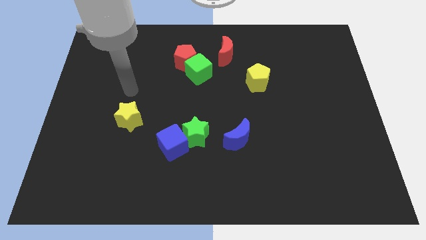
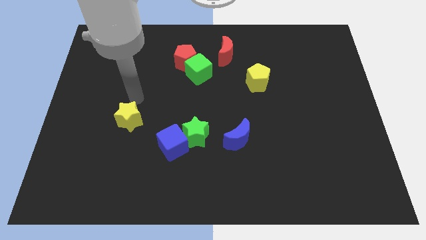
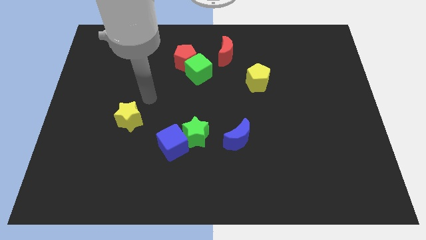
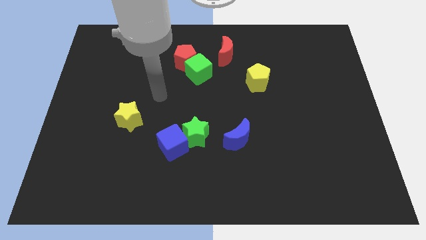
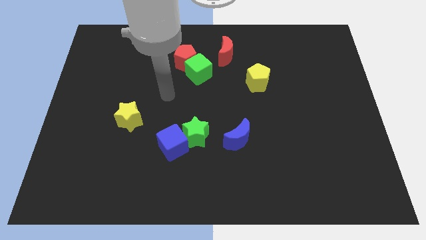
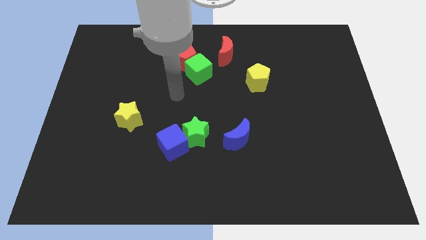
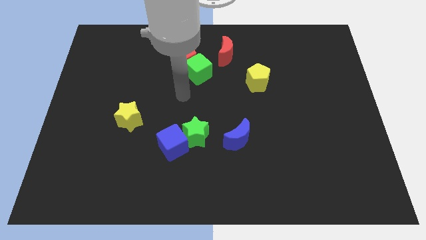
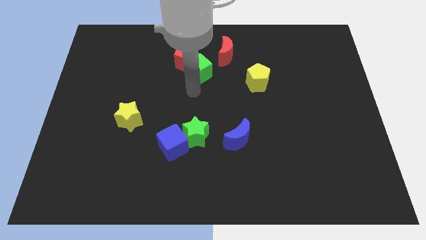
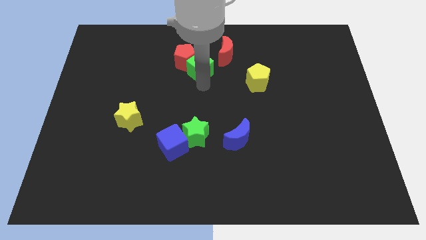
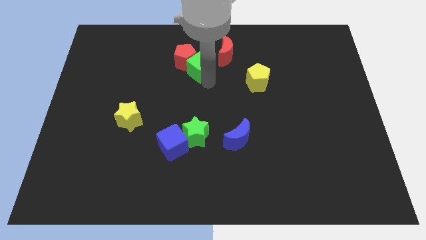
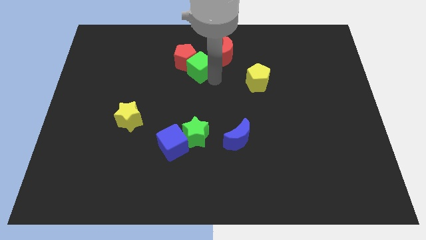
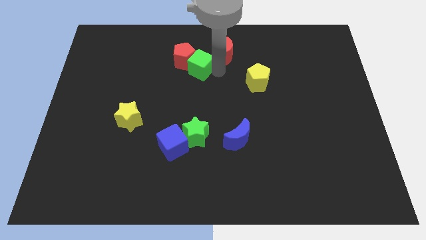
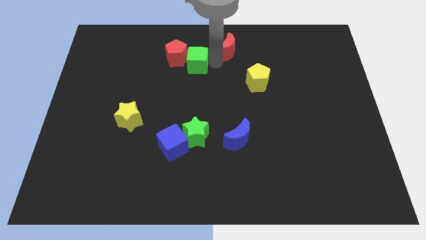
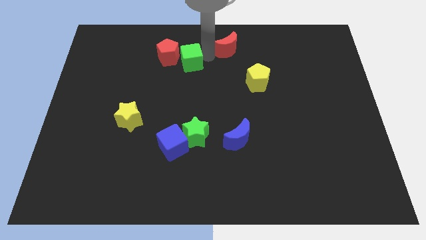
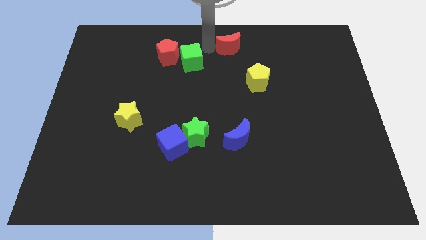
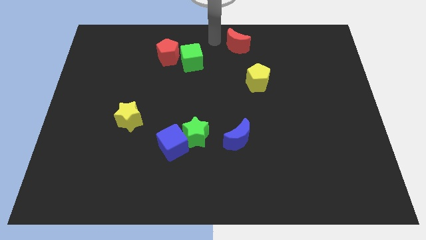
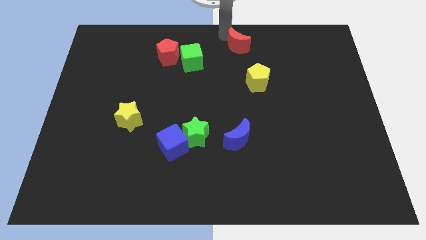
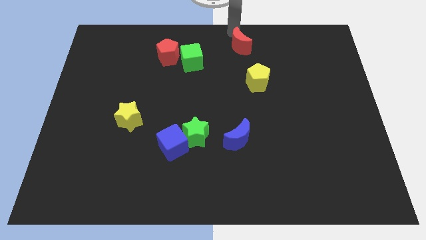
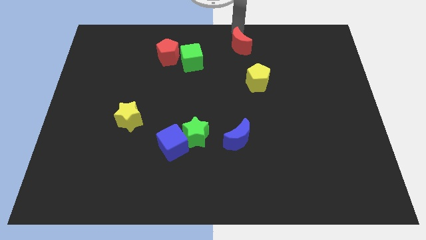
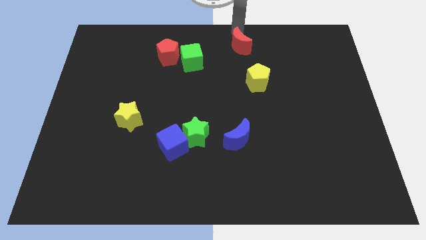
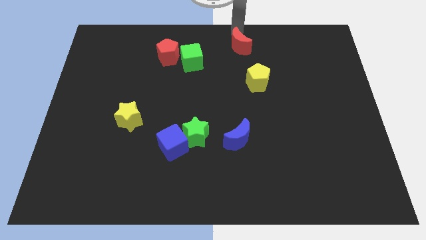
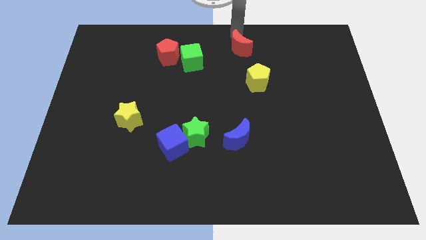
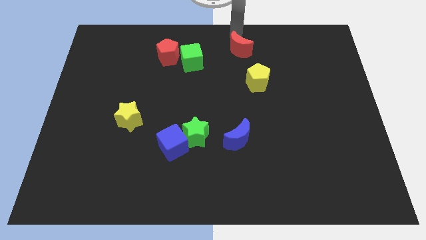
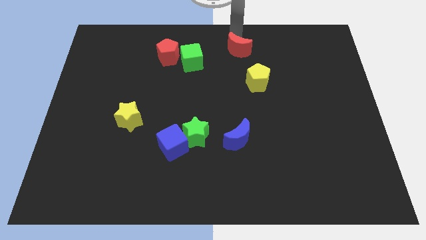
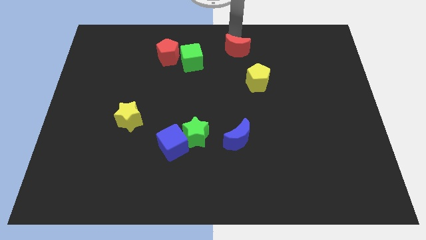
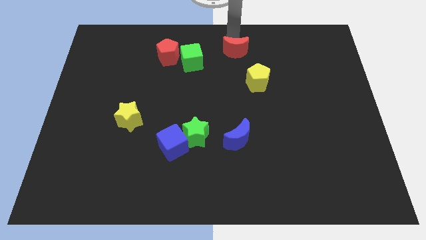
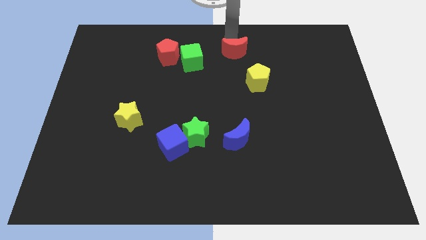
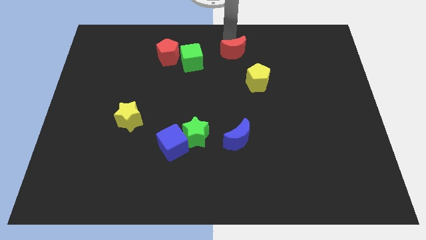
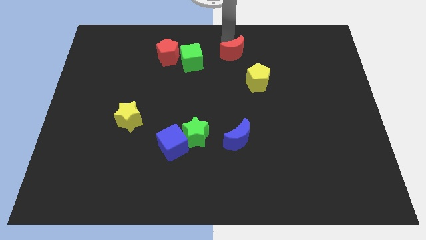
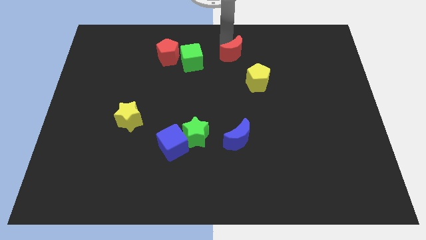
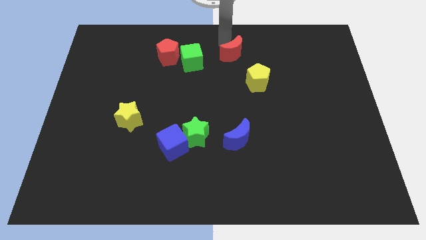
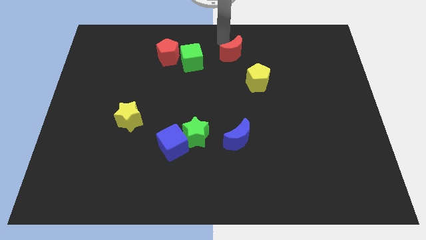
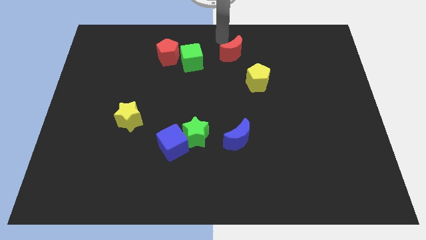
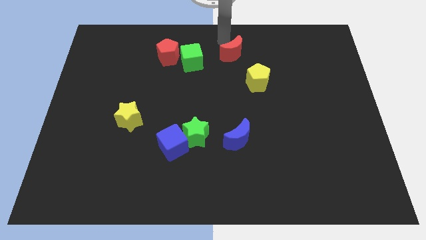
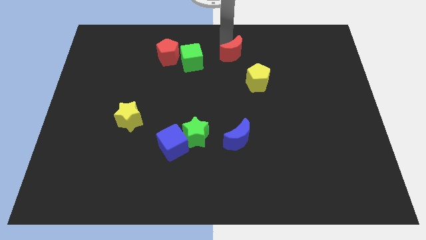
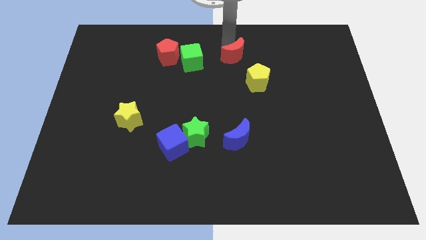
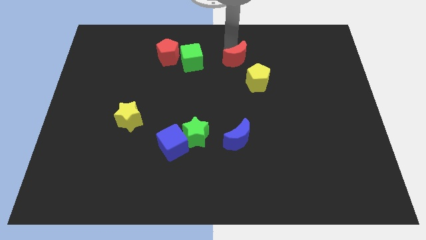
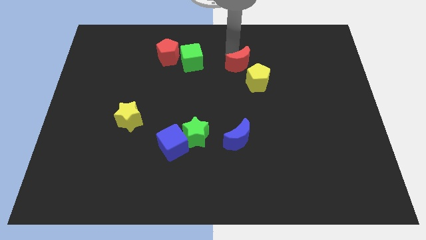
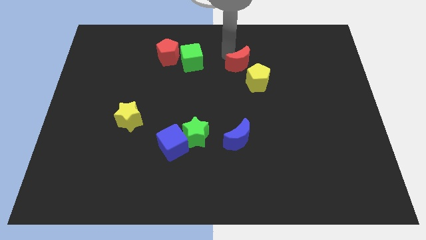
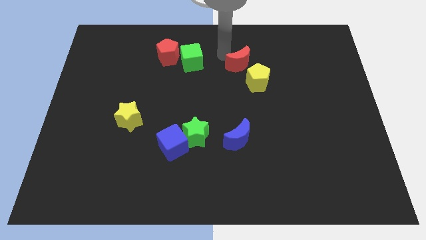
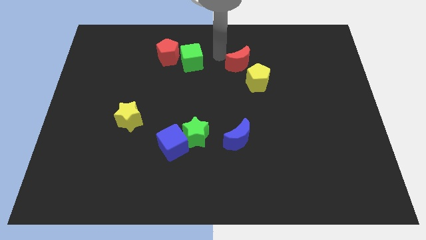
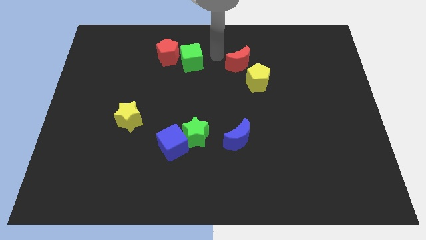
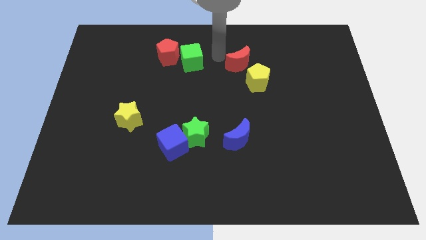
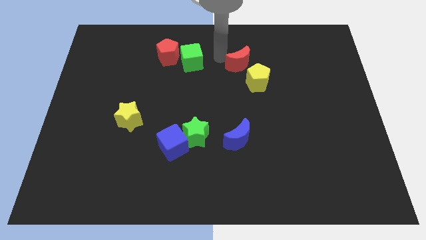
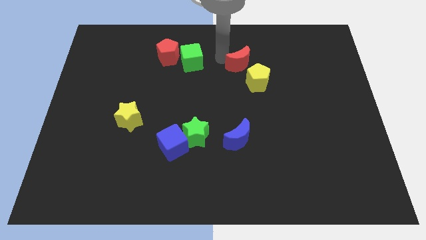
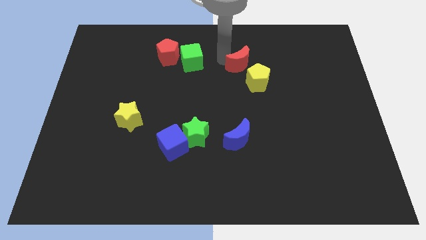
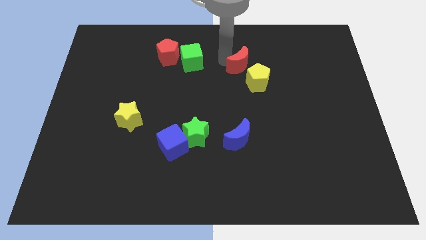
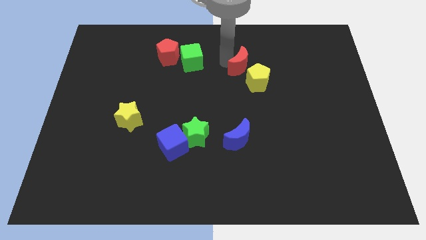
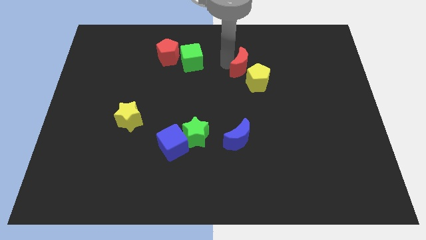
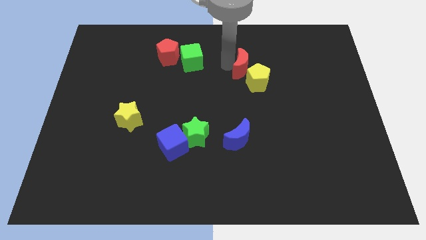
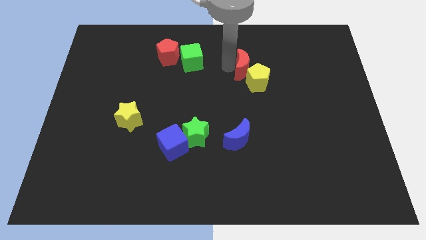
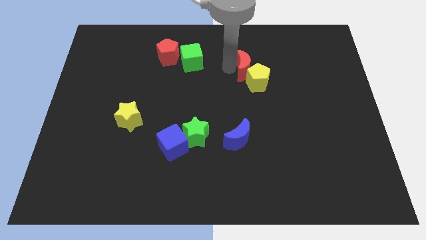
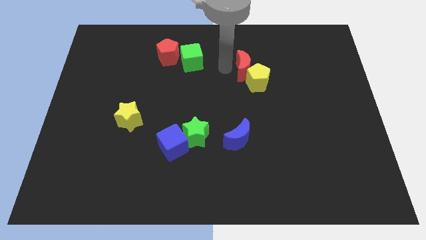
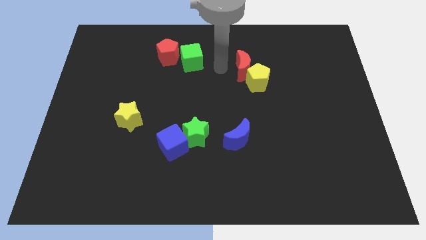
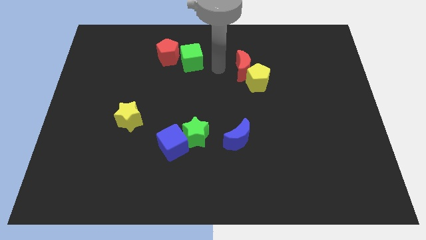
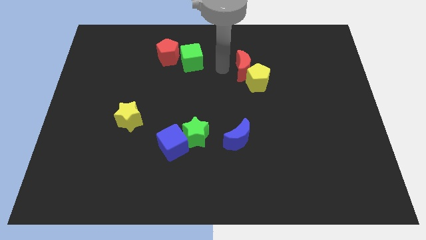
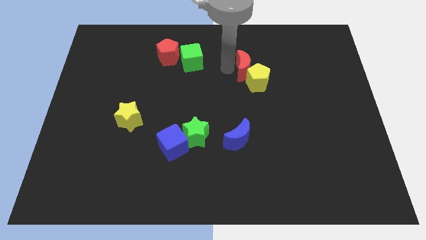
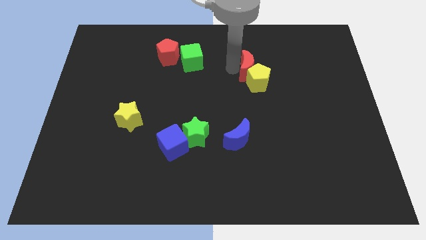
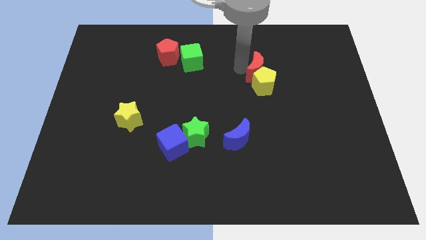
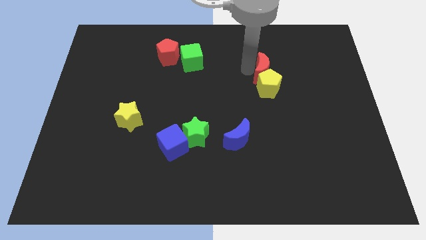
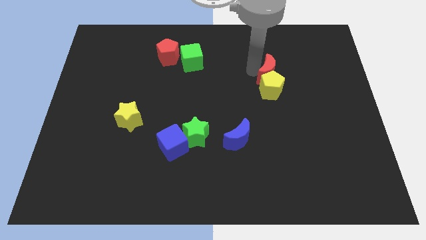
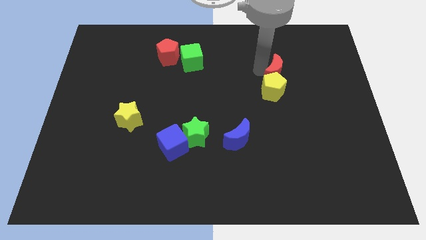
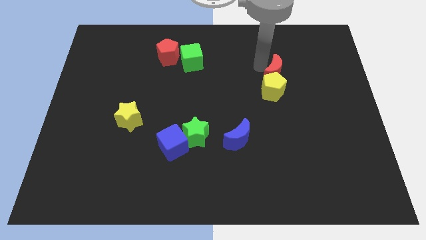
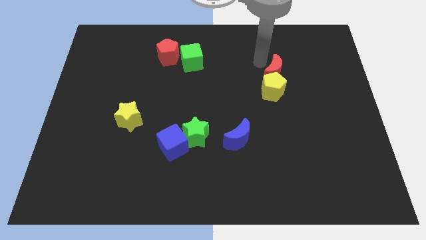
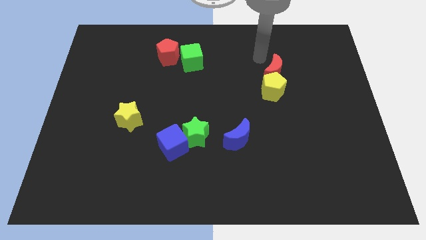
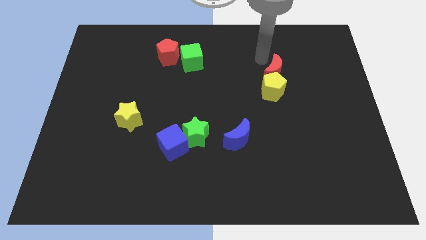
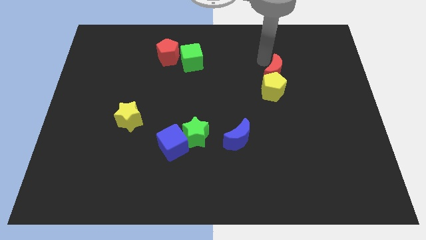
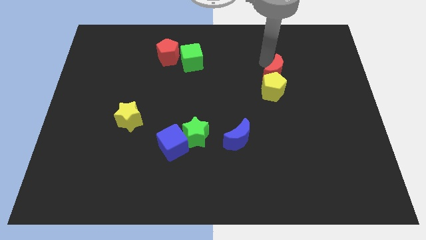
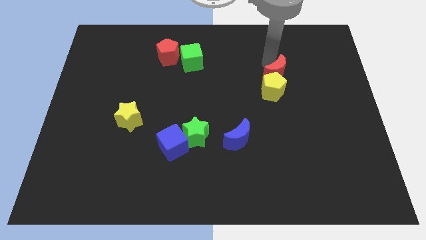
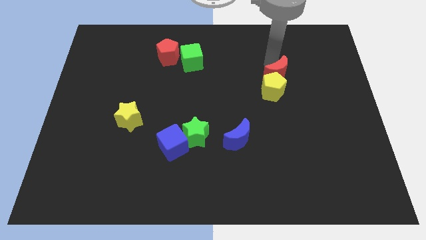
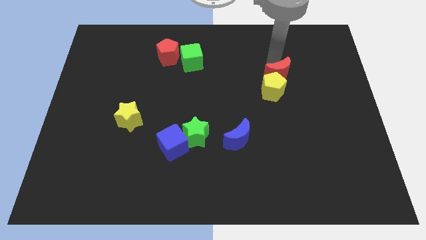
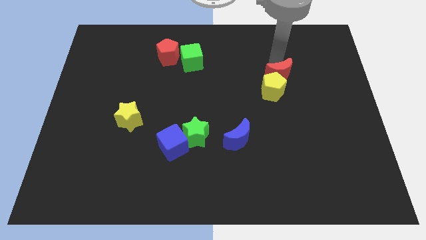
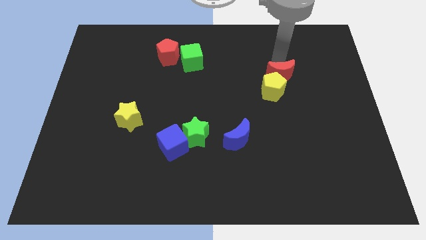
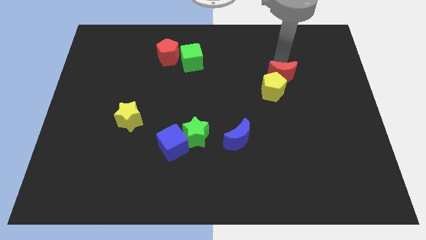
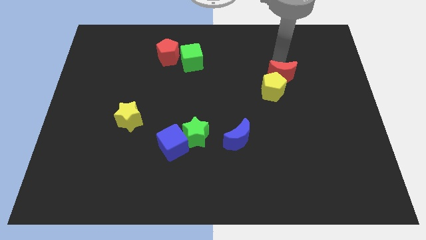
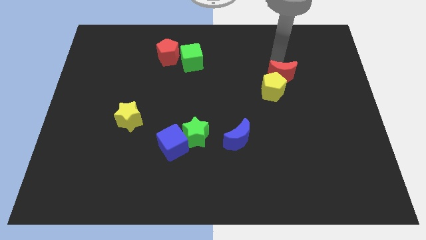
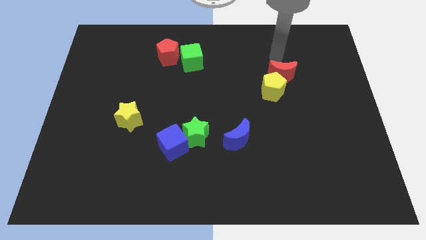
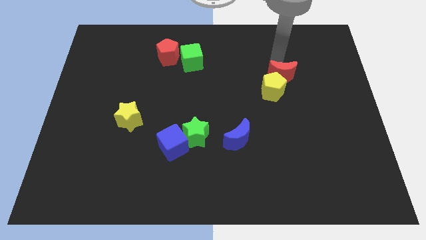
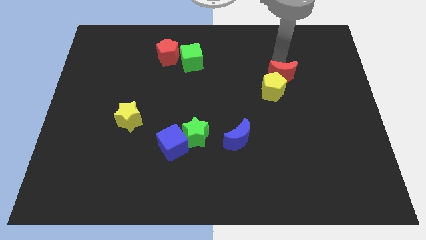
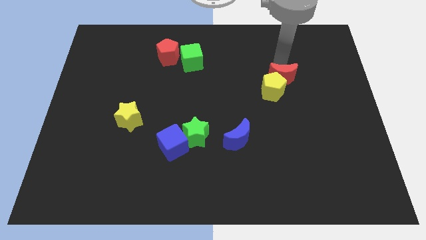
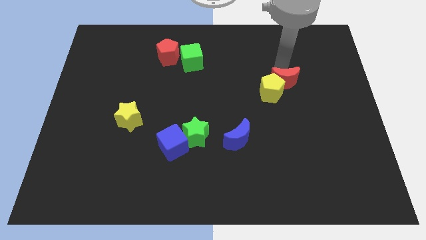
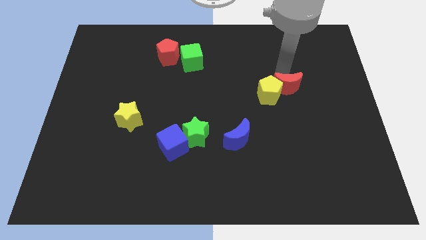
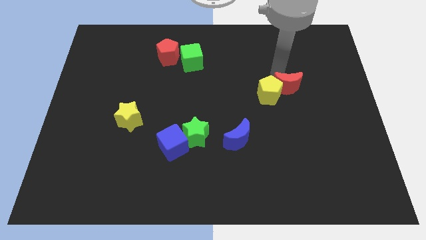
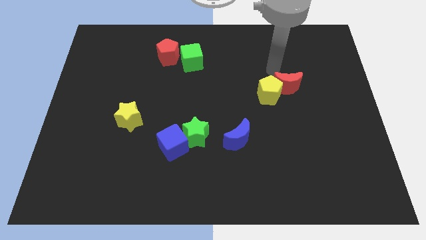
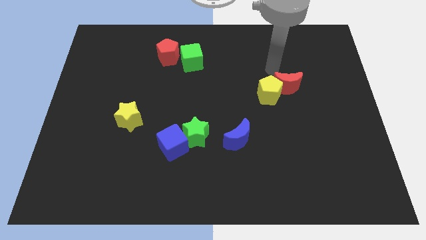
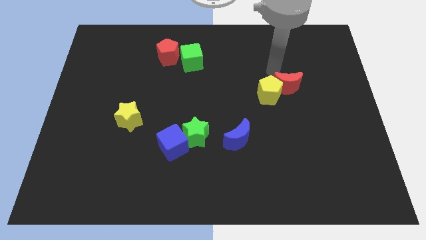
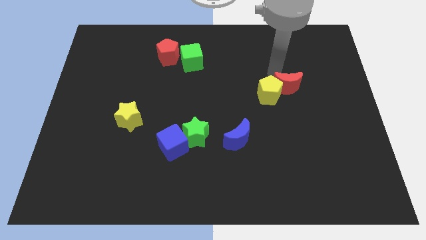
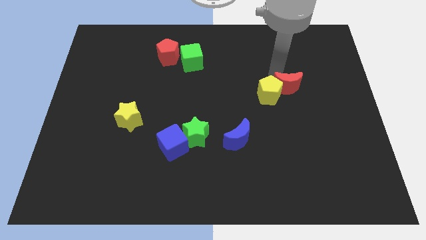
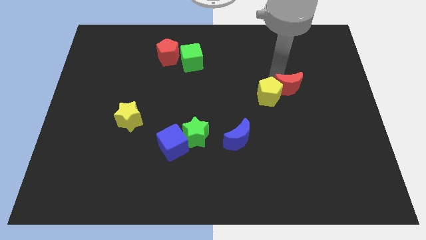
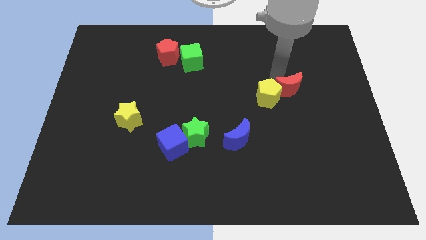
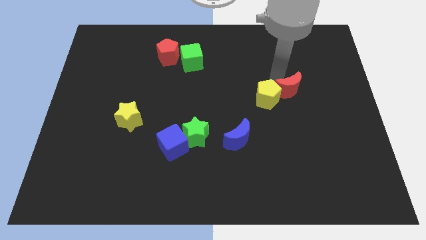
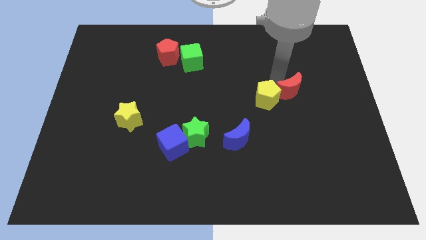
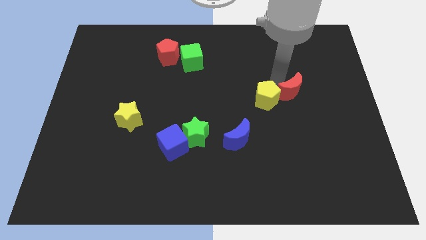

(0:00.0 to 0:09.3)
push the red moon down and then to the right
